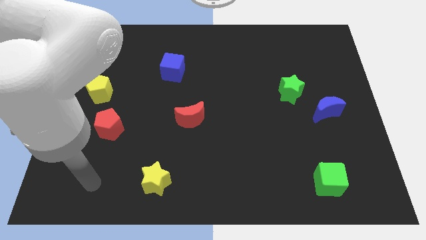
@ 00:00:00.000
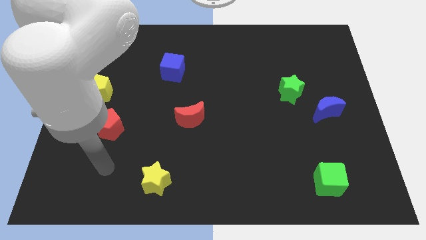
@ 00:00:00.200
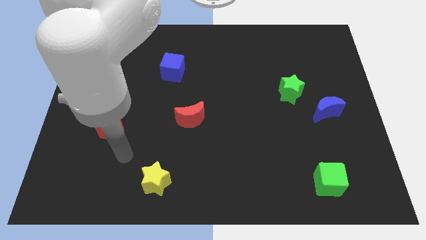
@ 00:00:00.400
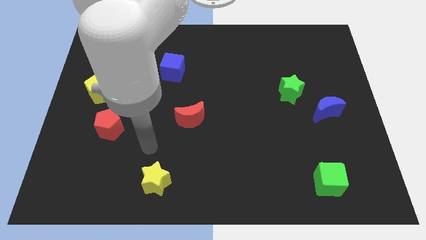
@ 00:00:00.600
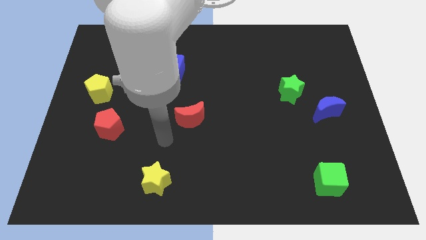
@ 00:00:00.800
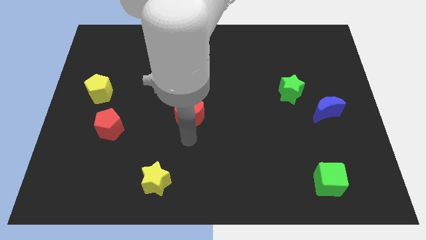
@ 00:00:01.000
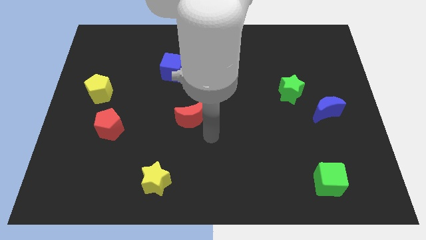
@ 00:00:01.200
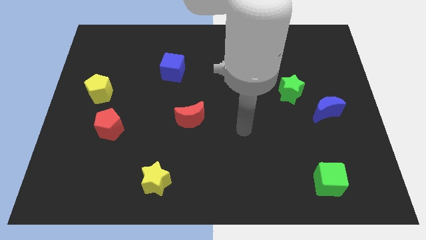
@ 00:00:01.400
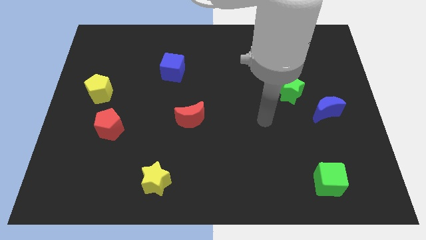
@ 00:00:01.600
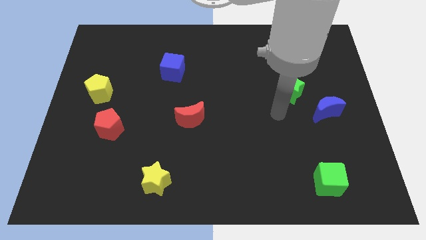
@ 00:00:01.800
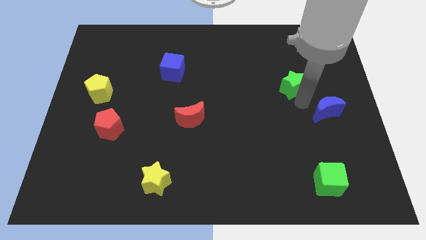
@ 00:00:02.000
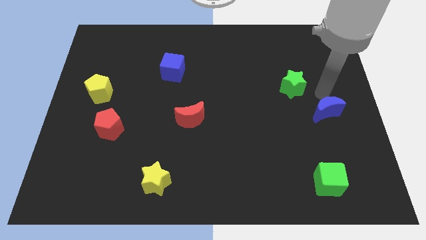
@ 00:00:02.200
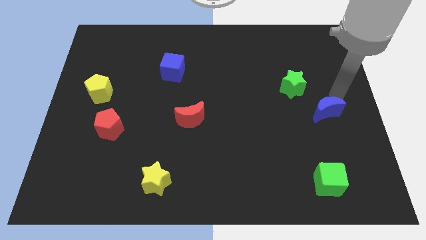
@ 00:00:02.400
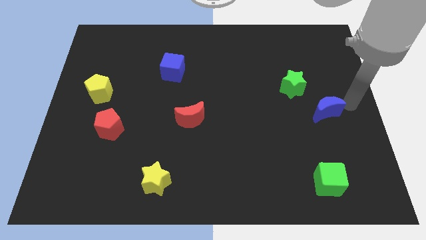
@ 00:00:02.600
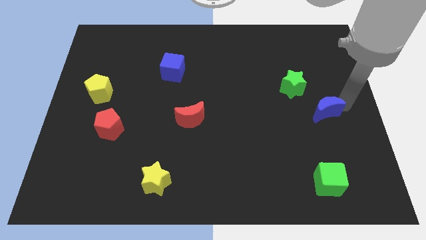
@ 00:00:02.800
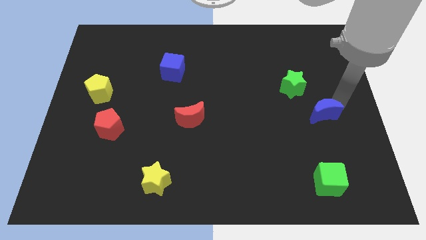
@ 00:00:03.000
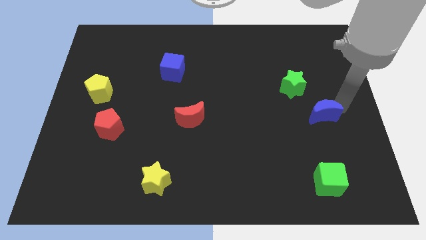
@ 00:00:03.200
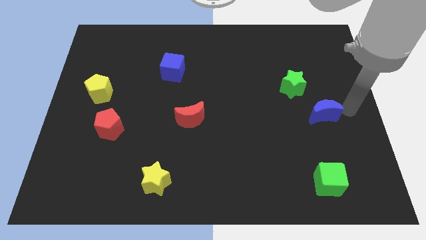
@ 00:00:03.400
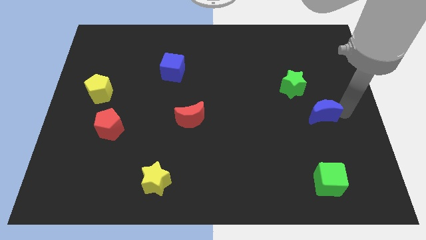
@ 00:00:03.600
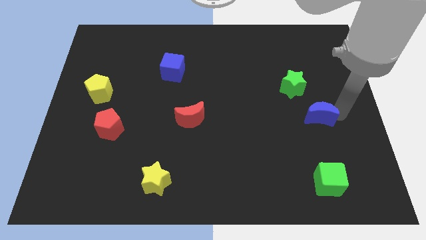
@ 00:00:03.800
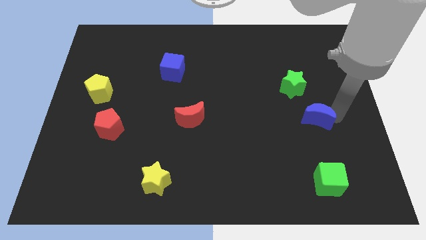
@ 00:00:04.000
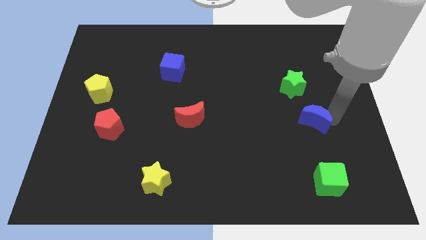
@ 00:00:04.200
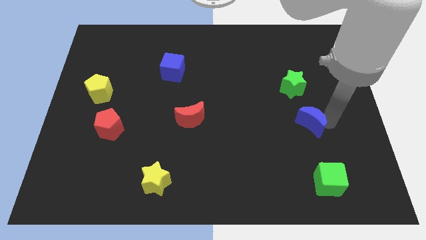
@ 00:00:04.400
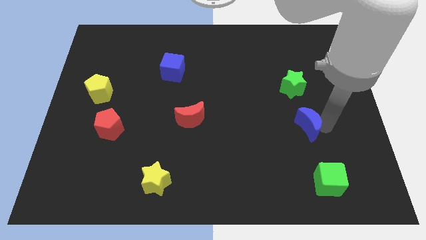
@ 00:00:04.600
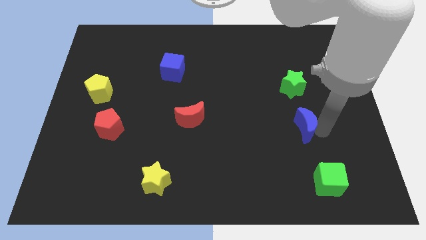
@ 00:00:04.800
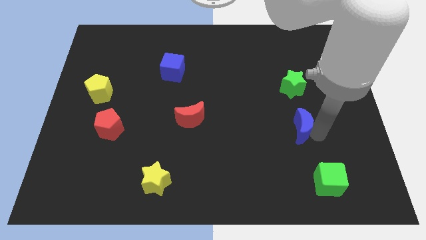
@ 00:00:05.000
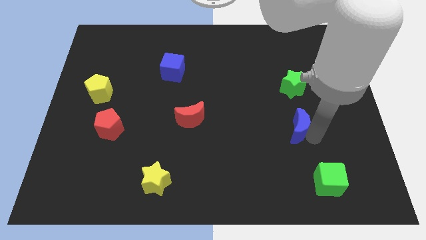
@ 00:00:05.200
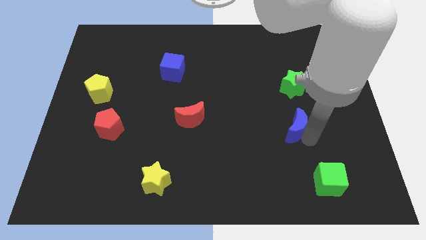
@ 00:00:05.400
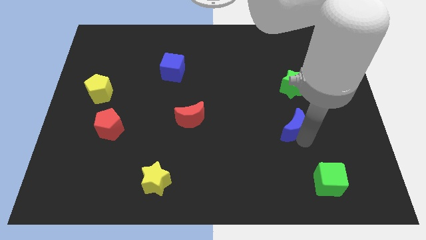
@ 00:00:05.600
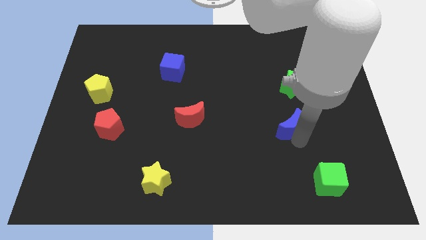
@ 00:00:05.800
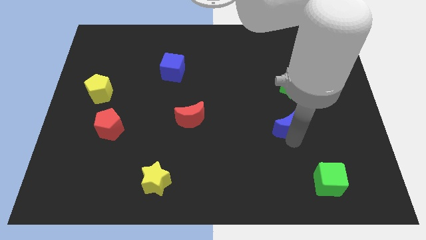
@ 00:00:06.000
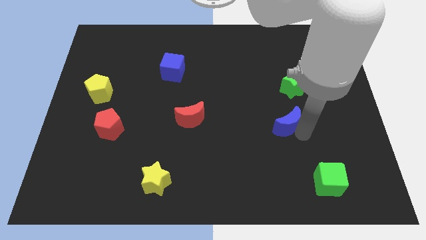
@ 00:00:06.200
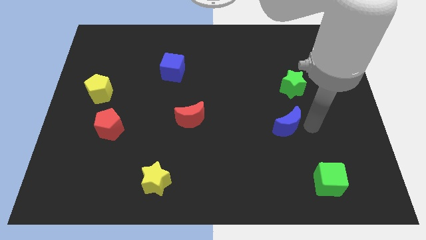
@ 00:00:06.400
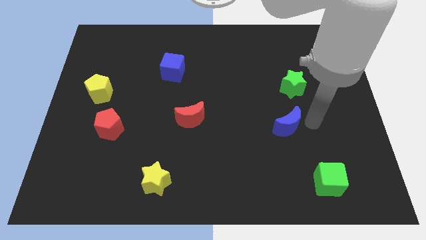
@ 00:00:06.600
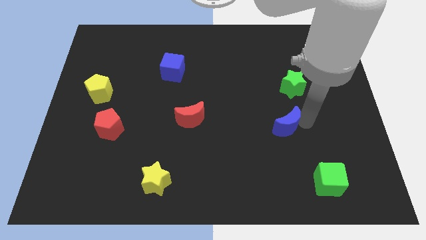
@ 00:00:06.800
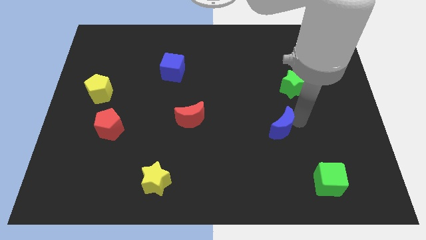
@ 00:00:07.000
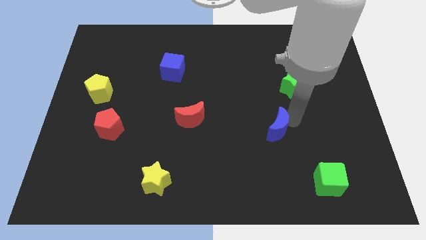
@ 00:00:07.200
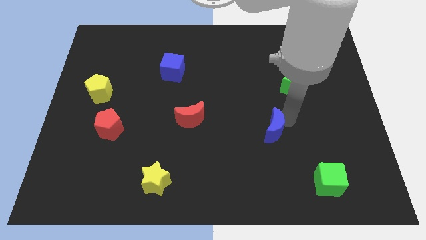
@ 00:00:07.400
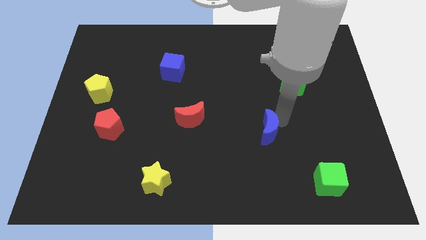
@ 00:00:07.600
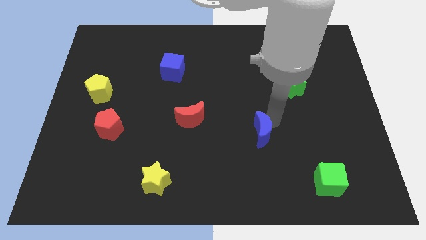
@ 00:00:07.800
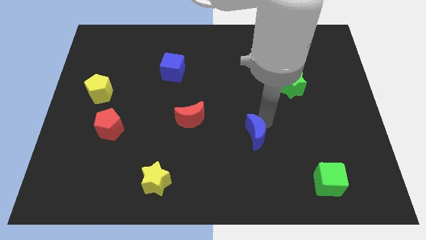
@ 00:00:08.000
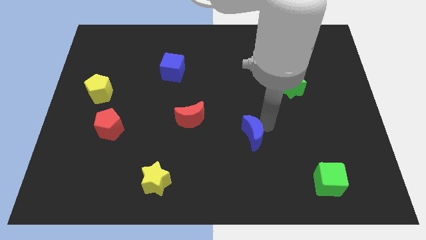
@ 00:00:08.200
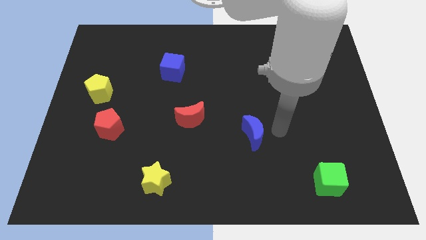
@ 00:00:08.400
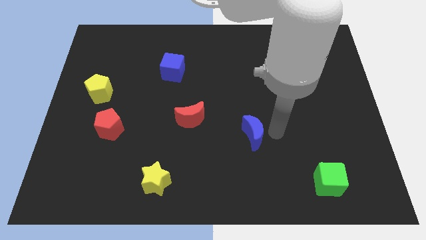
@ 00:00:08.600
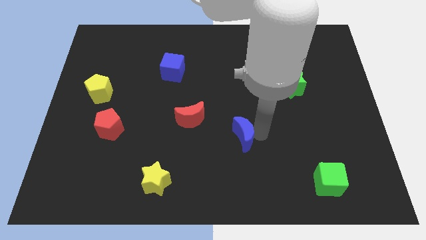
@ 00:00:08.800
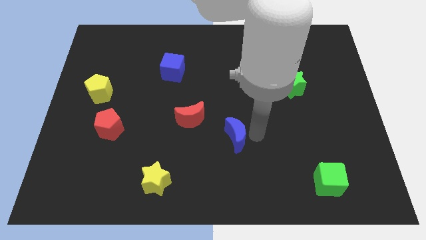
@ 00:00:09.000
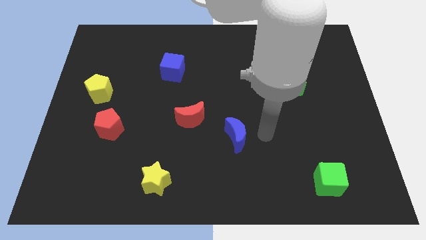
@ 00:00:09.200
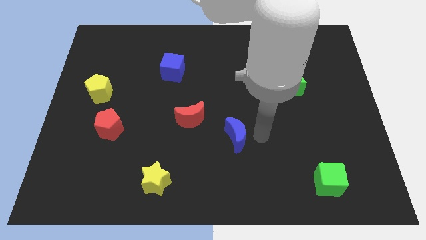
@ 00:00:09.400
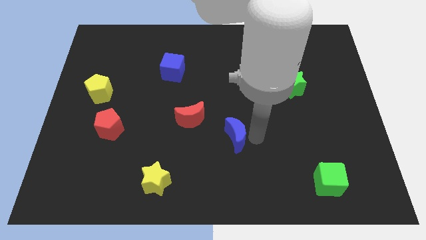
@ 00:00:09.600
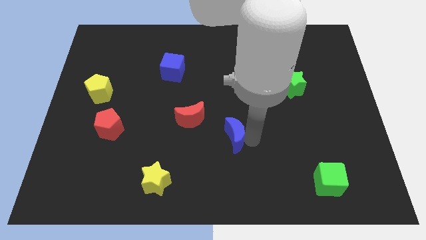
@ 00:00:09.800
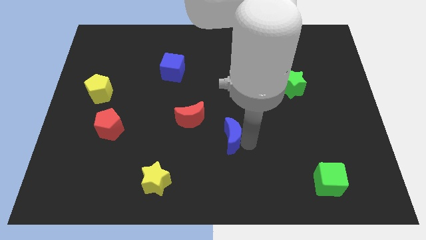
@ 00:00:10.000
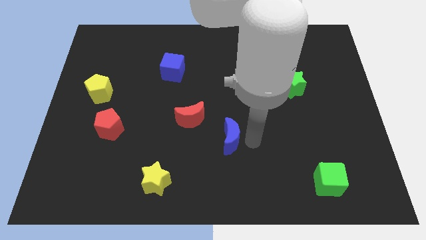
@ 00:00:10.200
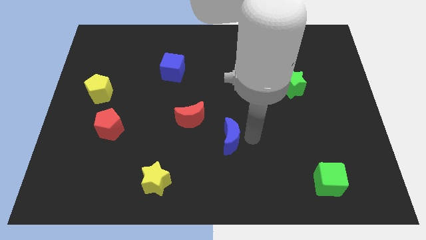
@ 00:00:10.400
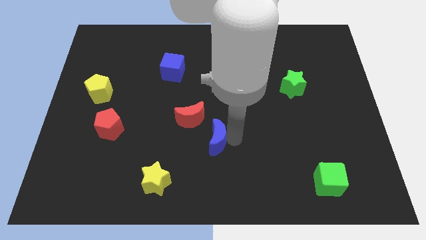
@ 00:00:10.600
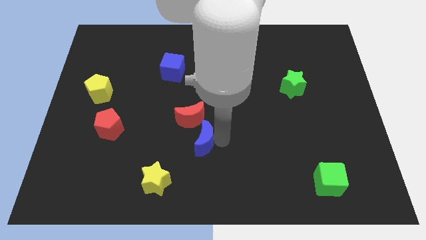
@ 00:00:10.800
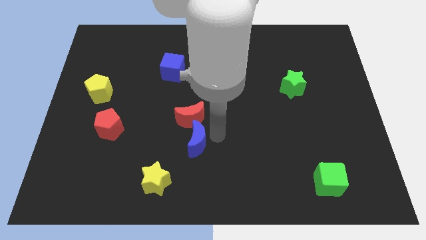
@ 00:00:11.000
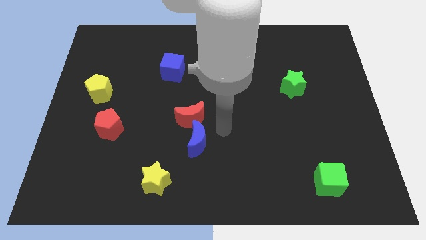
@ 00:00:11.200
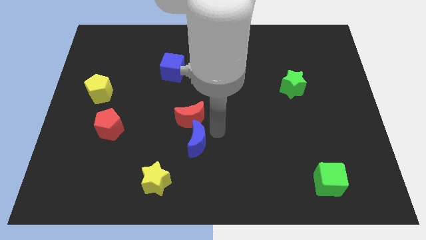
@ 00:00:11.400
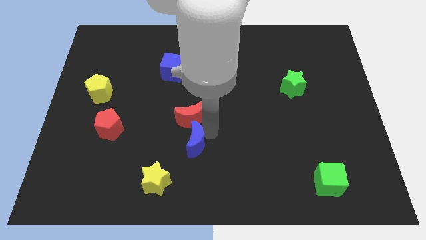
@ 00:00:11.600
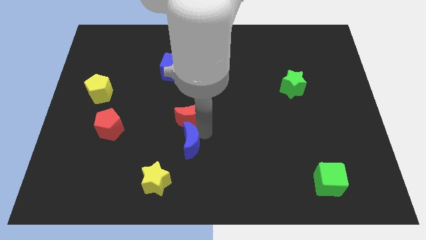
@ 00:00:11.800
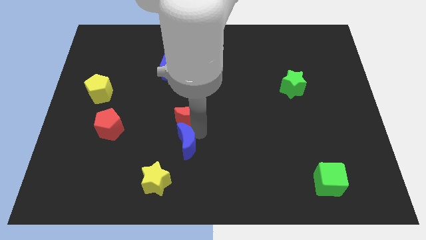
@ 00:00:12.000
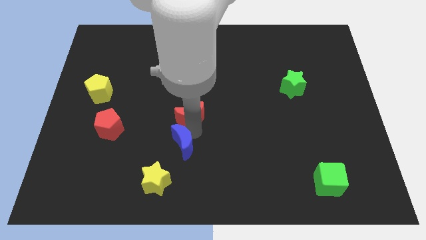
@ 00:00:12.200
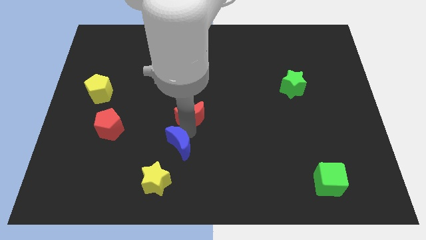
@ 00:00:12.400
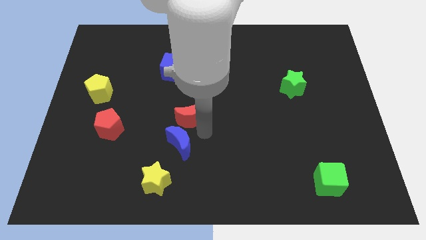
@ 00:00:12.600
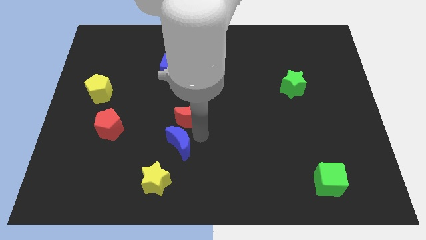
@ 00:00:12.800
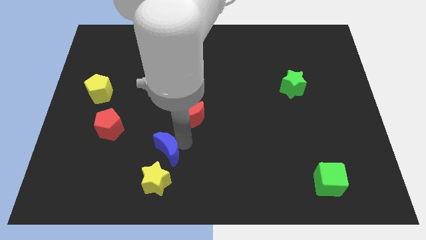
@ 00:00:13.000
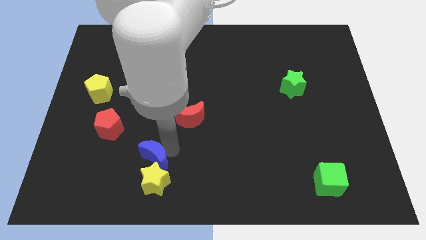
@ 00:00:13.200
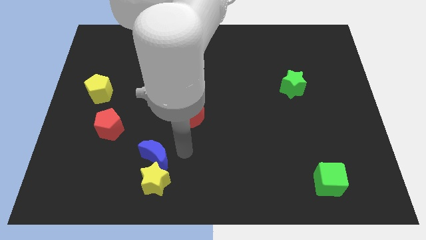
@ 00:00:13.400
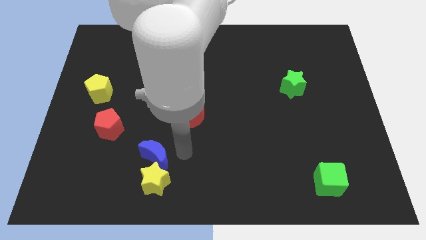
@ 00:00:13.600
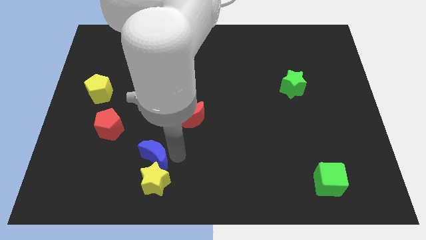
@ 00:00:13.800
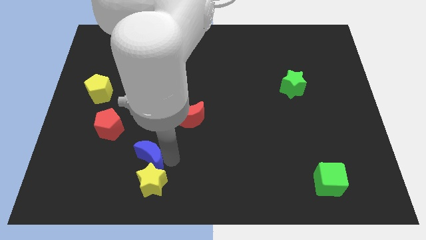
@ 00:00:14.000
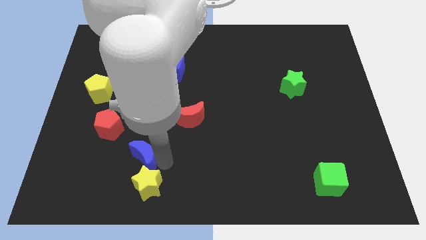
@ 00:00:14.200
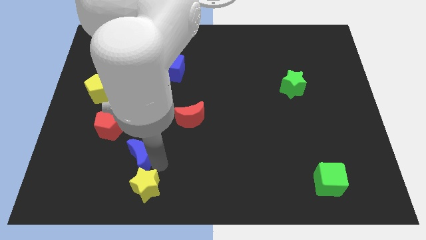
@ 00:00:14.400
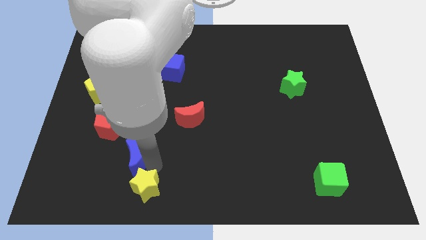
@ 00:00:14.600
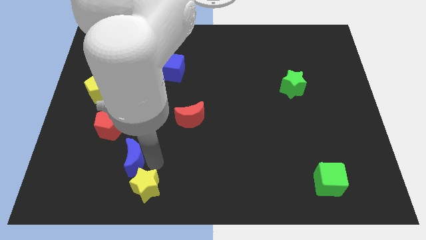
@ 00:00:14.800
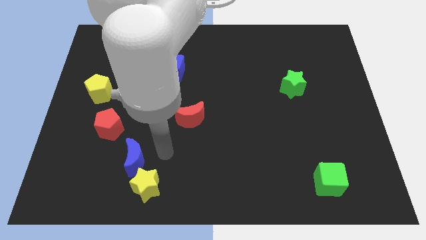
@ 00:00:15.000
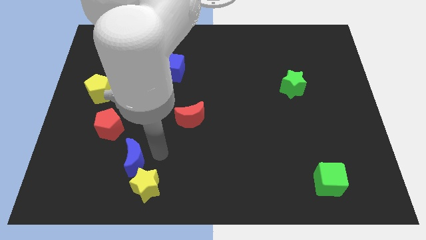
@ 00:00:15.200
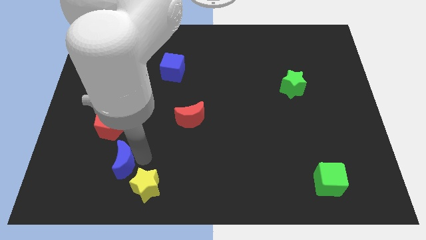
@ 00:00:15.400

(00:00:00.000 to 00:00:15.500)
slide the blue moon to the bottom side of the red pentagon
